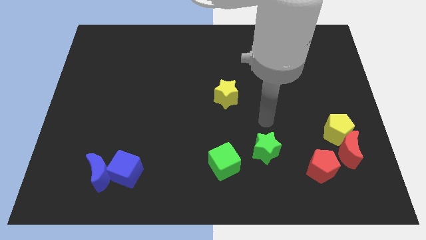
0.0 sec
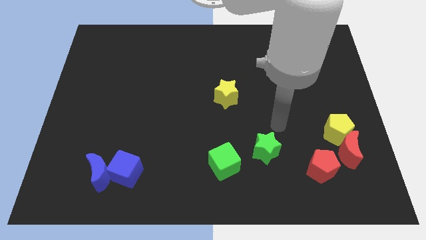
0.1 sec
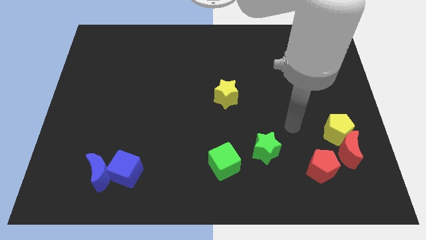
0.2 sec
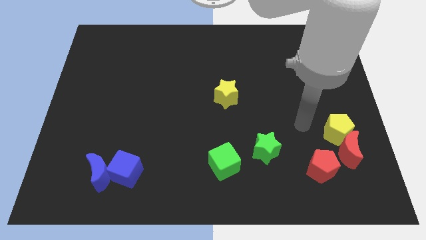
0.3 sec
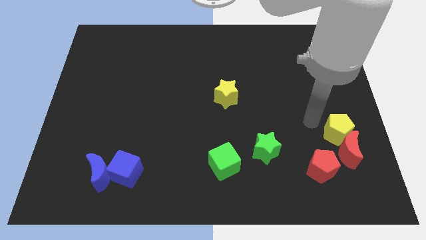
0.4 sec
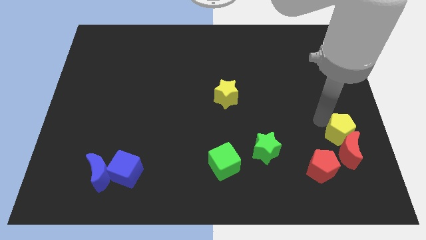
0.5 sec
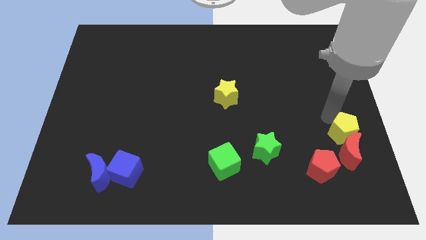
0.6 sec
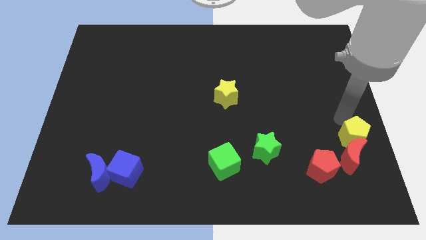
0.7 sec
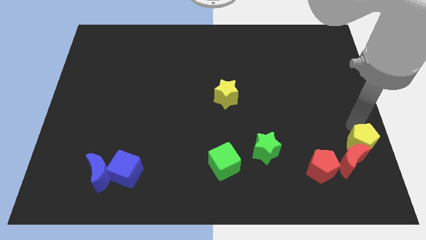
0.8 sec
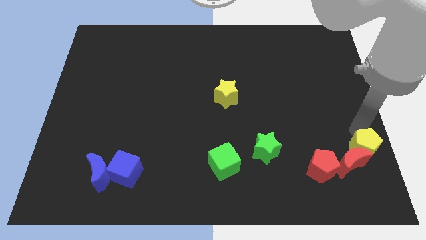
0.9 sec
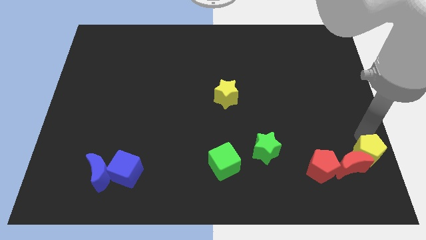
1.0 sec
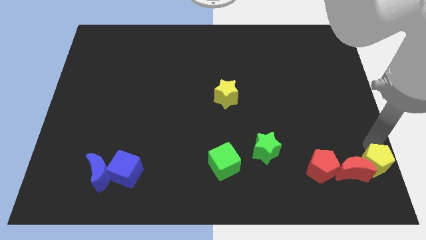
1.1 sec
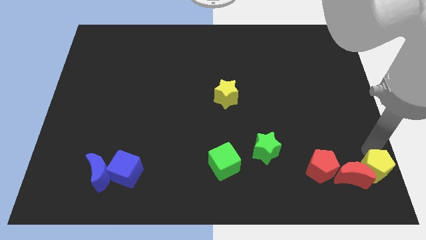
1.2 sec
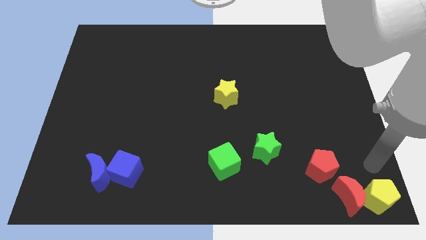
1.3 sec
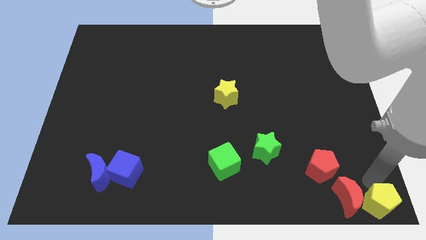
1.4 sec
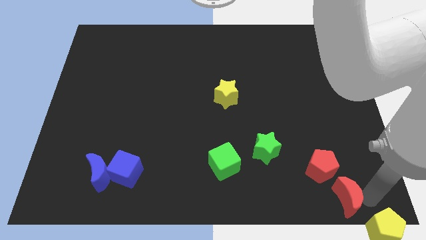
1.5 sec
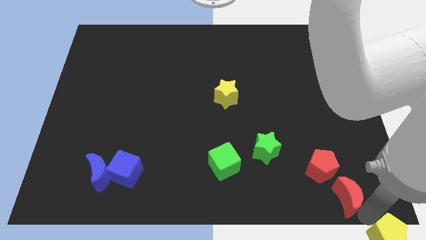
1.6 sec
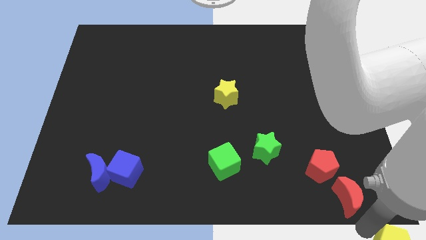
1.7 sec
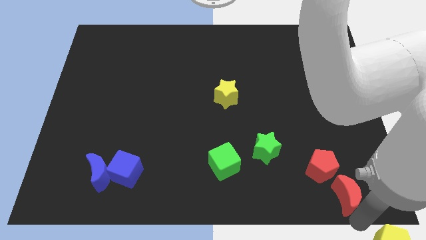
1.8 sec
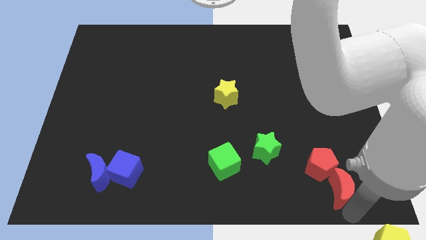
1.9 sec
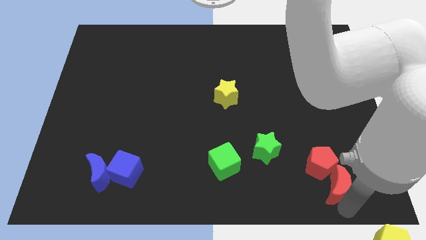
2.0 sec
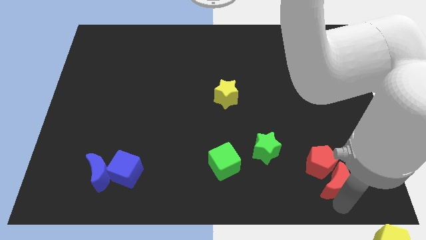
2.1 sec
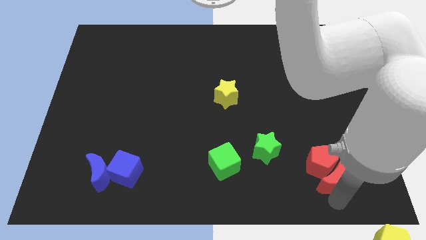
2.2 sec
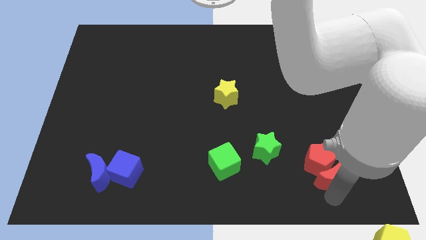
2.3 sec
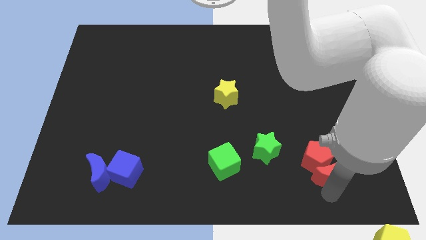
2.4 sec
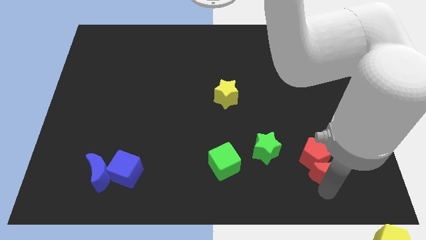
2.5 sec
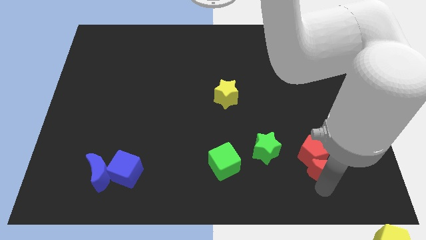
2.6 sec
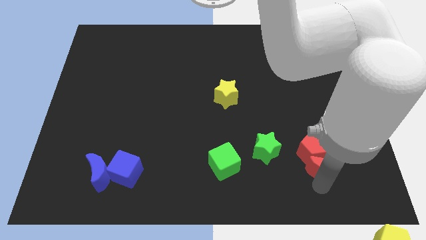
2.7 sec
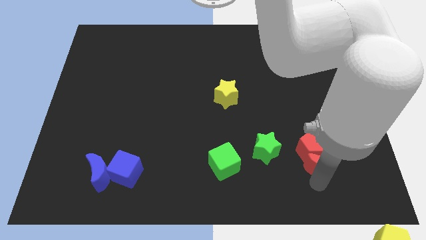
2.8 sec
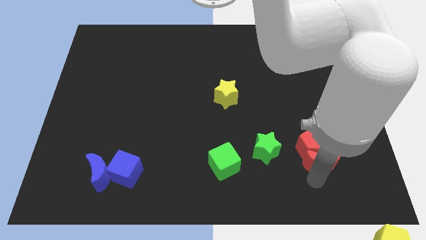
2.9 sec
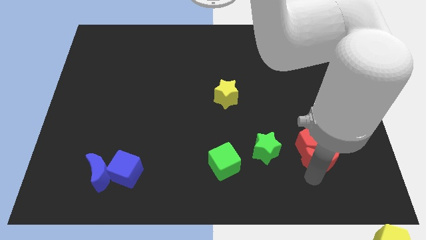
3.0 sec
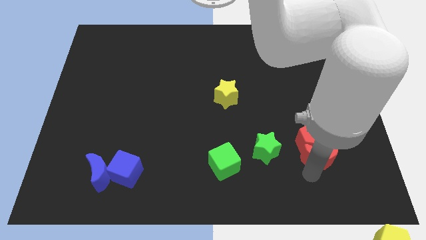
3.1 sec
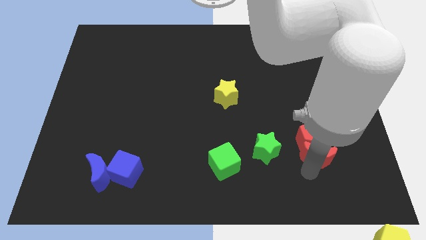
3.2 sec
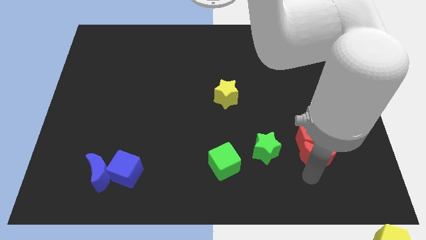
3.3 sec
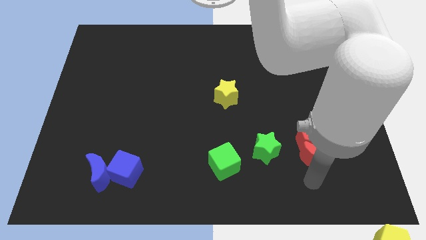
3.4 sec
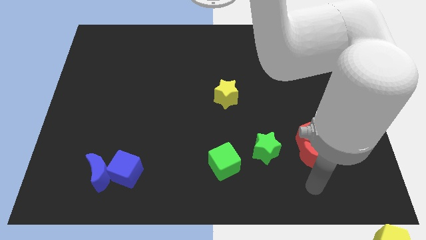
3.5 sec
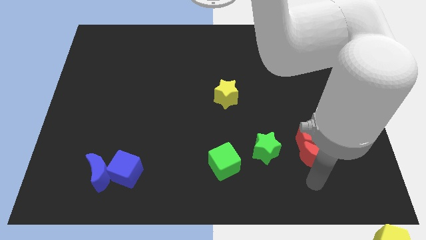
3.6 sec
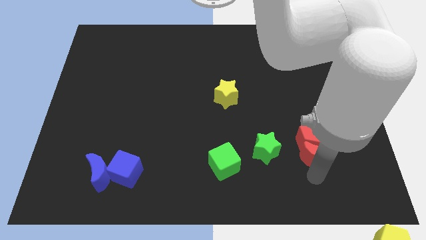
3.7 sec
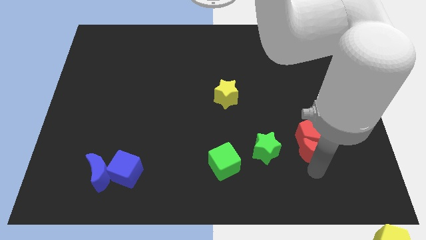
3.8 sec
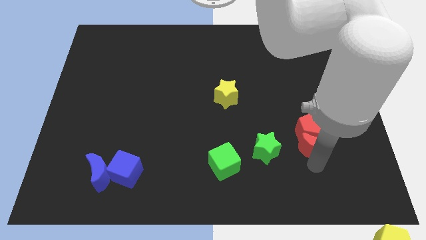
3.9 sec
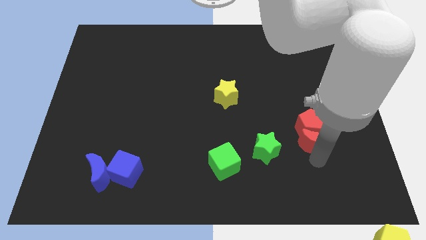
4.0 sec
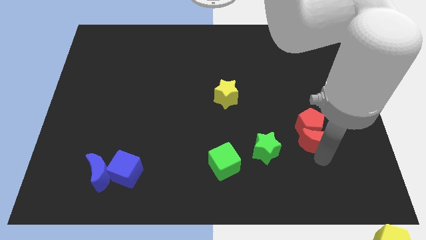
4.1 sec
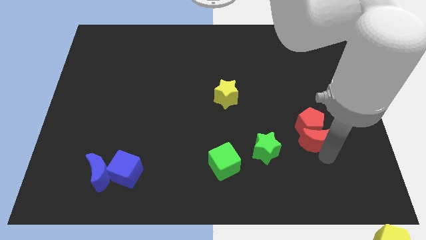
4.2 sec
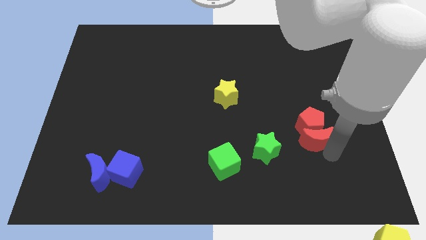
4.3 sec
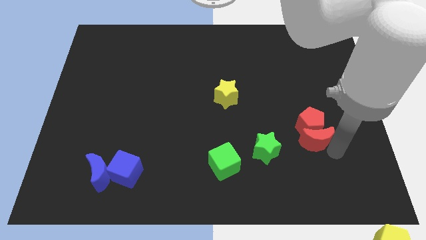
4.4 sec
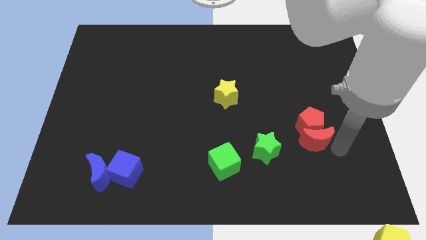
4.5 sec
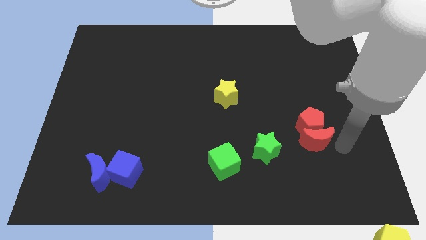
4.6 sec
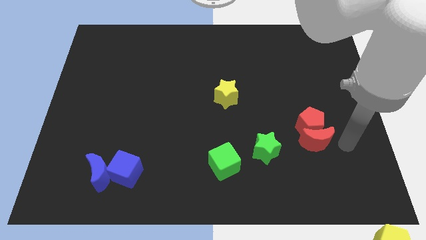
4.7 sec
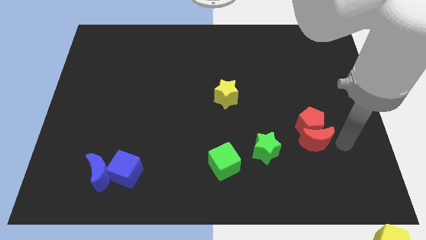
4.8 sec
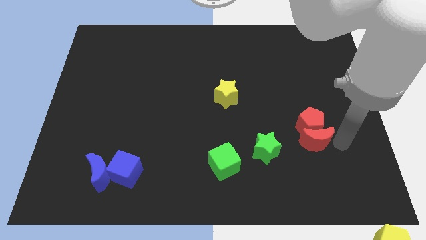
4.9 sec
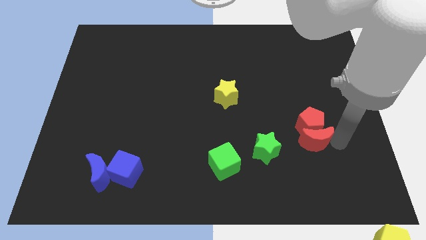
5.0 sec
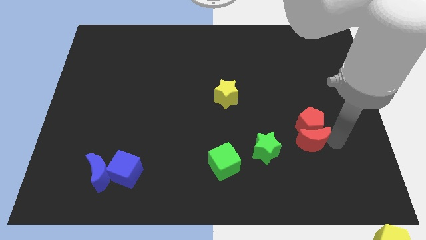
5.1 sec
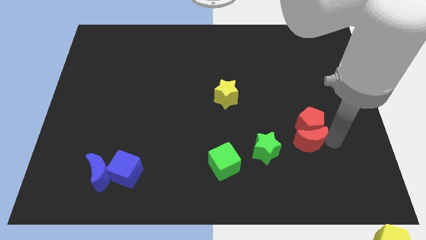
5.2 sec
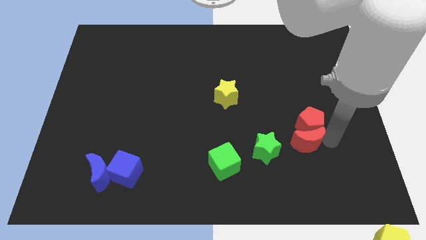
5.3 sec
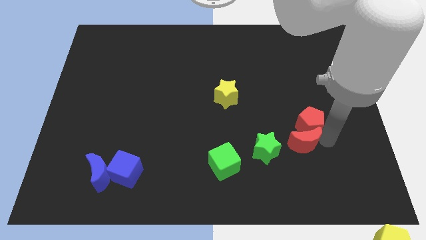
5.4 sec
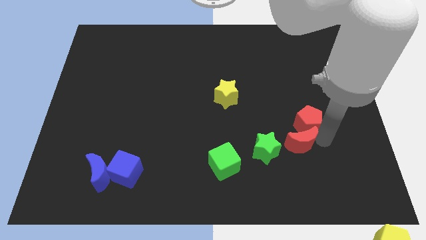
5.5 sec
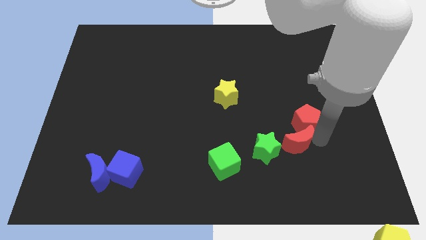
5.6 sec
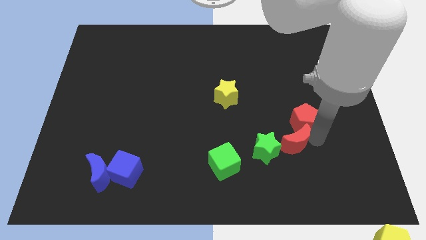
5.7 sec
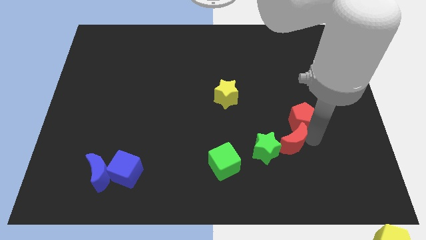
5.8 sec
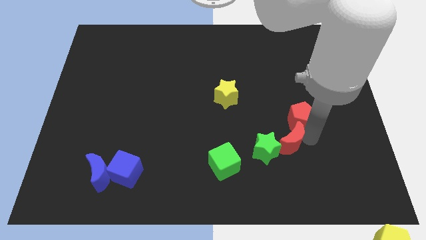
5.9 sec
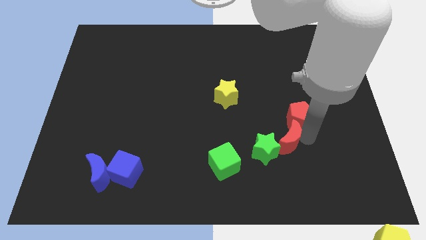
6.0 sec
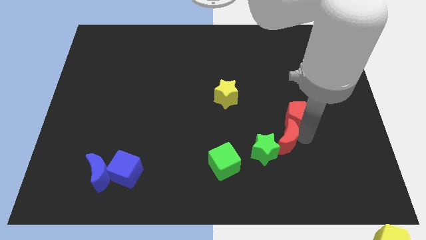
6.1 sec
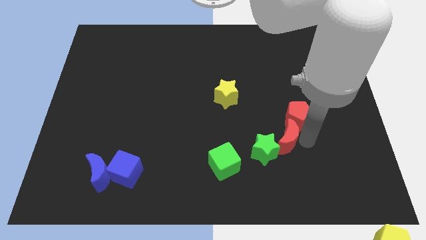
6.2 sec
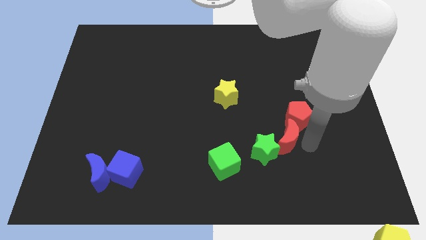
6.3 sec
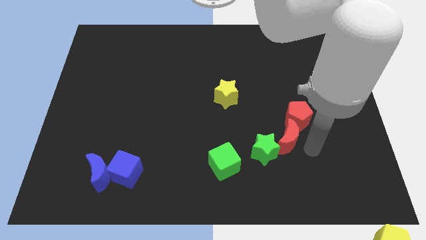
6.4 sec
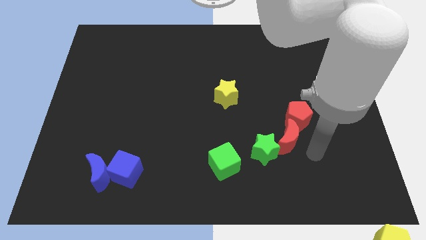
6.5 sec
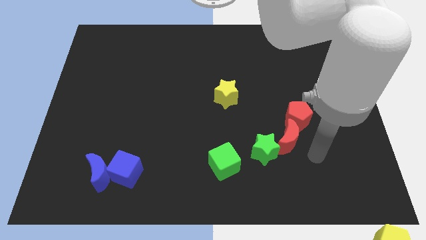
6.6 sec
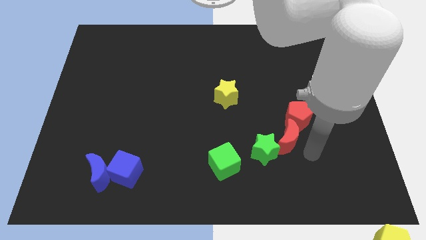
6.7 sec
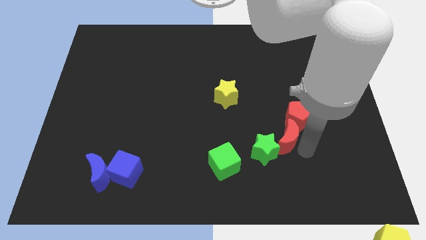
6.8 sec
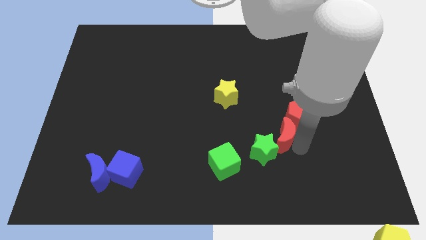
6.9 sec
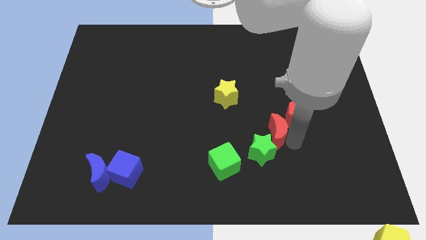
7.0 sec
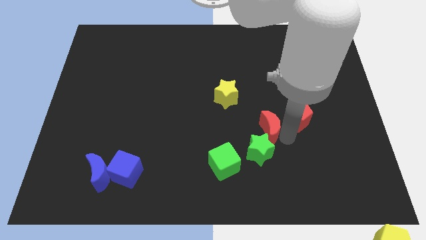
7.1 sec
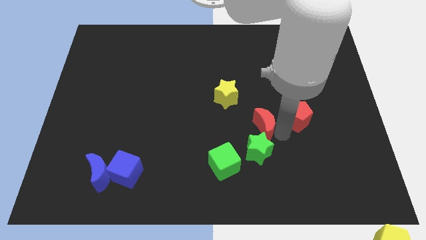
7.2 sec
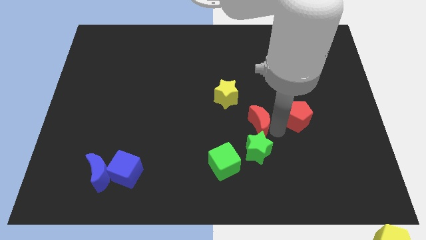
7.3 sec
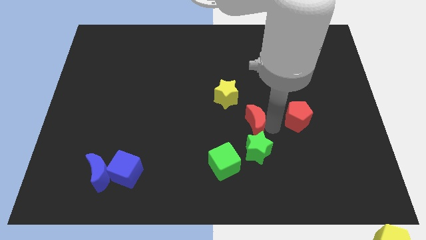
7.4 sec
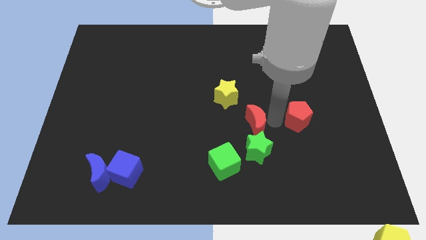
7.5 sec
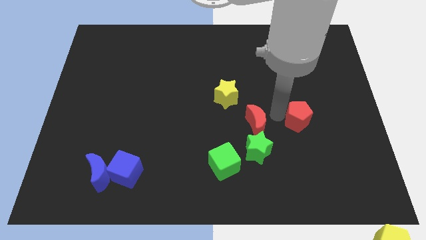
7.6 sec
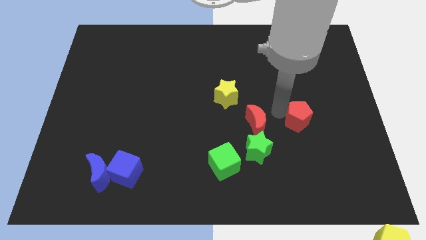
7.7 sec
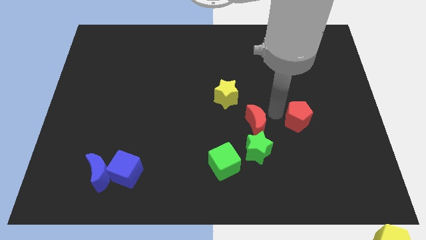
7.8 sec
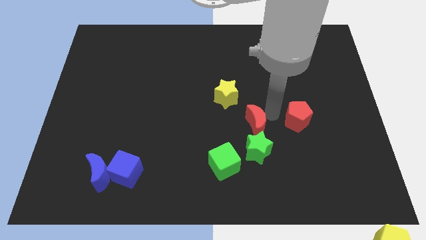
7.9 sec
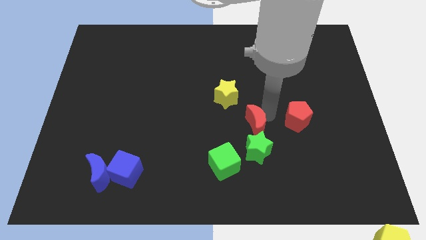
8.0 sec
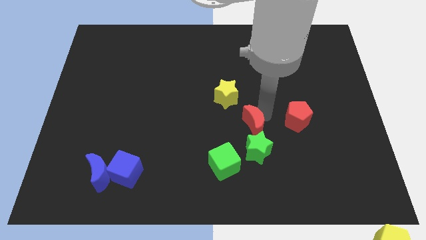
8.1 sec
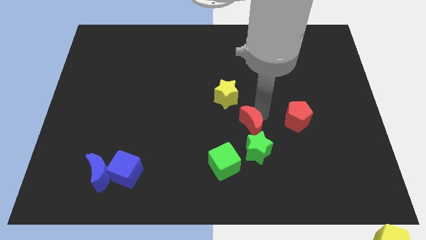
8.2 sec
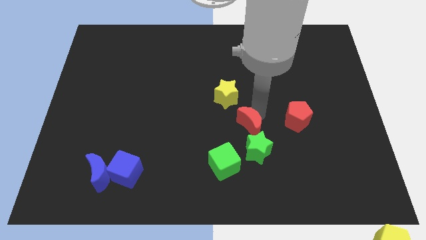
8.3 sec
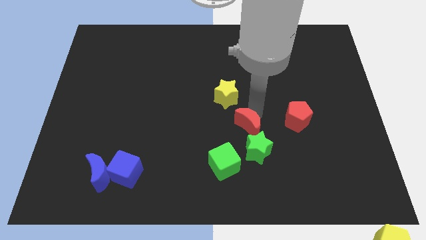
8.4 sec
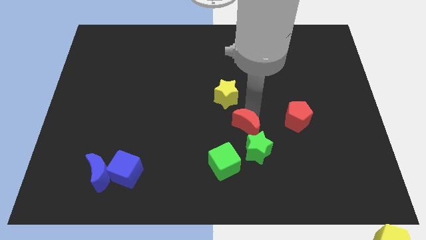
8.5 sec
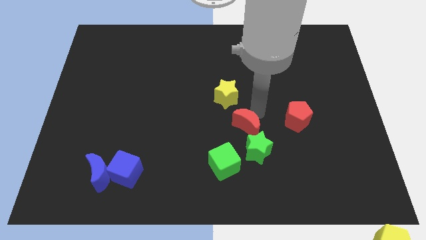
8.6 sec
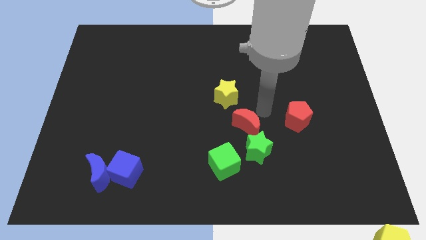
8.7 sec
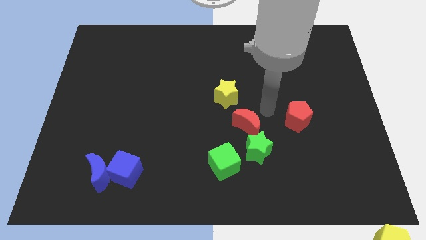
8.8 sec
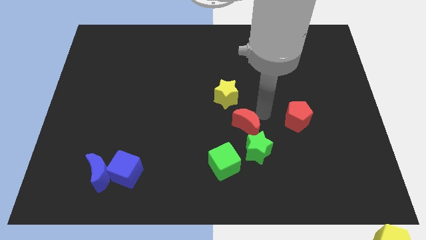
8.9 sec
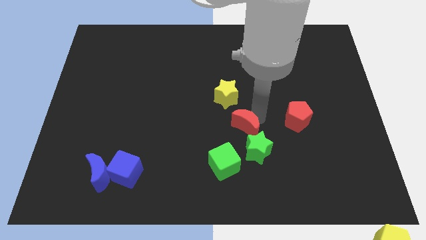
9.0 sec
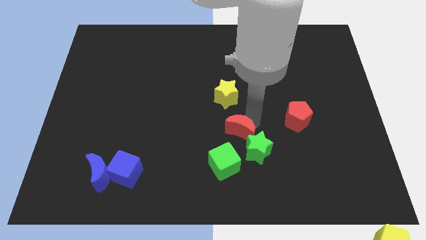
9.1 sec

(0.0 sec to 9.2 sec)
push the red moon to the left
